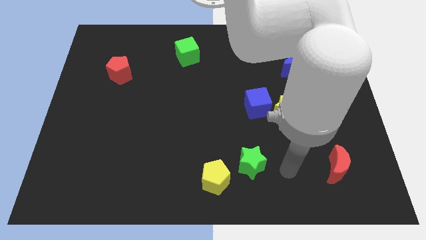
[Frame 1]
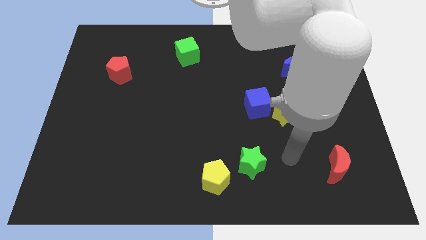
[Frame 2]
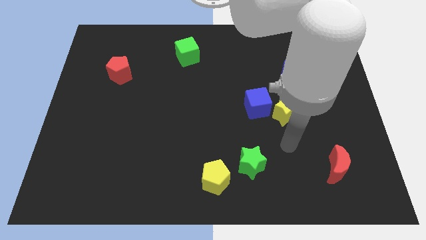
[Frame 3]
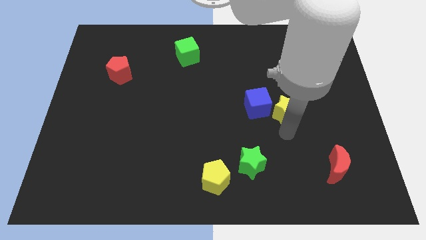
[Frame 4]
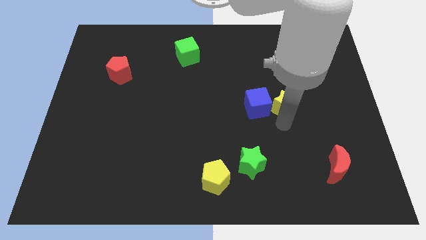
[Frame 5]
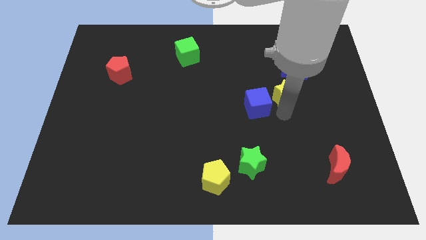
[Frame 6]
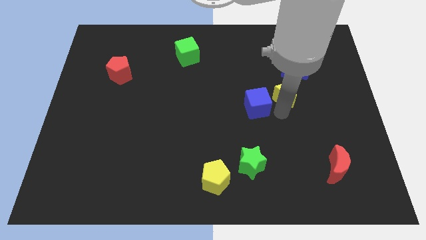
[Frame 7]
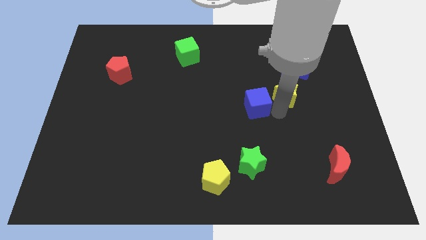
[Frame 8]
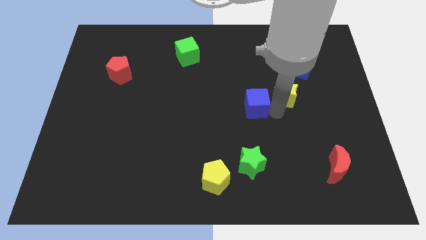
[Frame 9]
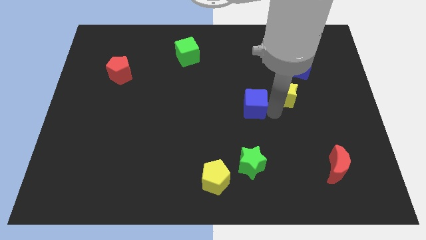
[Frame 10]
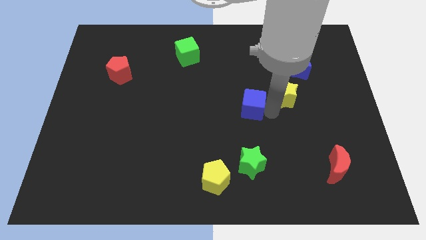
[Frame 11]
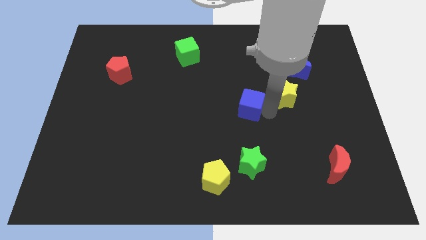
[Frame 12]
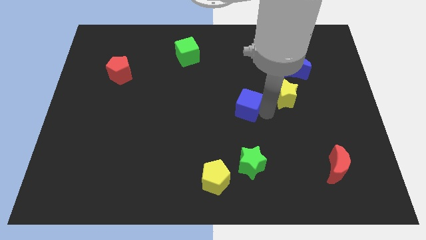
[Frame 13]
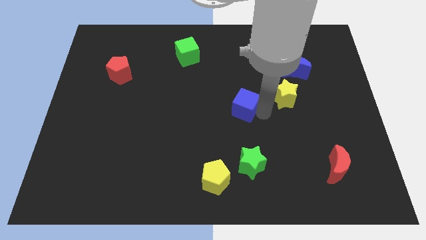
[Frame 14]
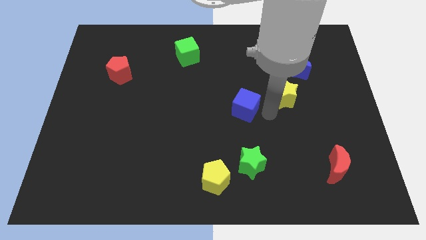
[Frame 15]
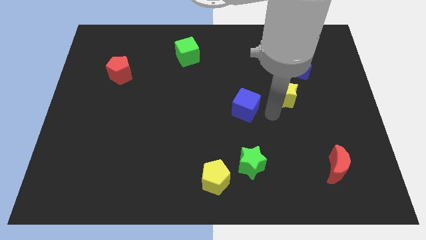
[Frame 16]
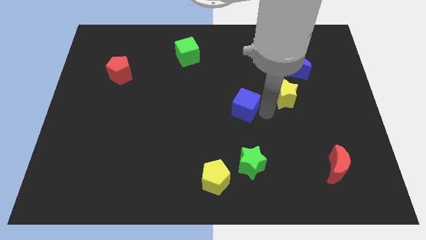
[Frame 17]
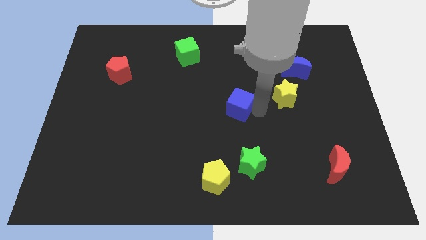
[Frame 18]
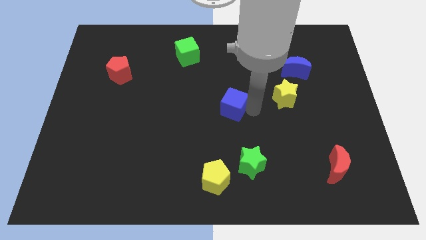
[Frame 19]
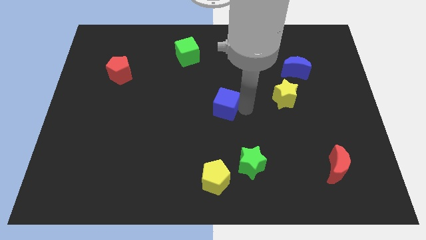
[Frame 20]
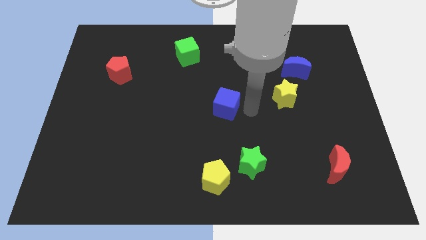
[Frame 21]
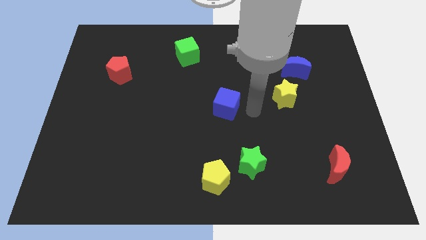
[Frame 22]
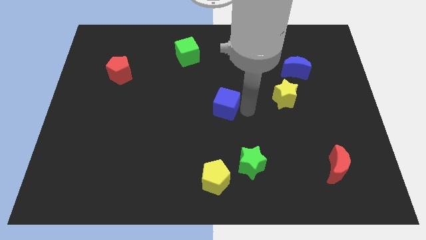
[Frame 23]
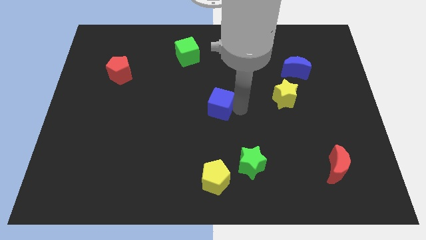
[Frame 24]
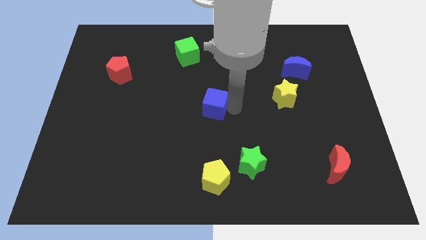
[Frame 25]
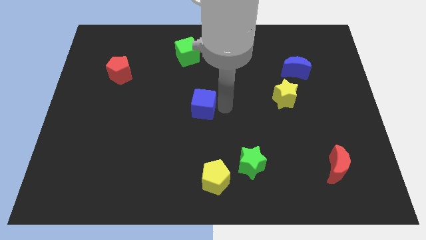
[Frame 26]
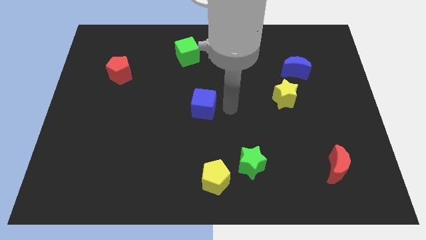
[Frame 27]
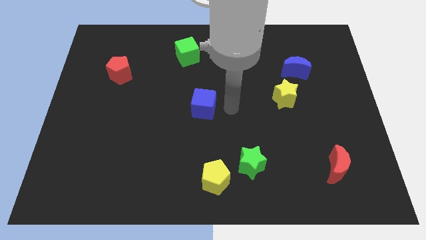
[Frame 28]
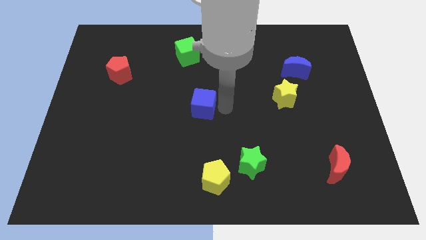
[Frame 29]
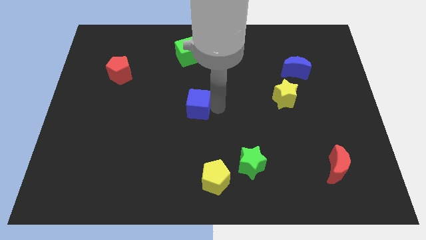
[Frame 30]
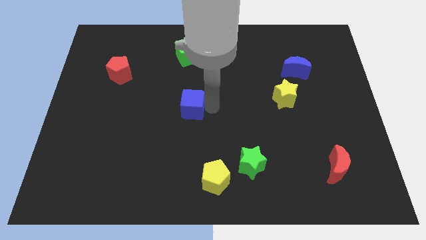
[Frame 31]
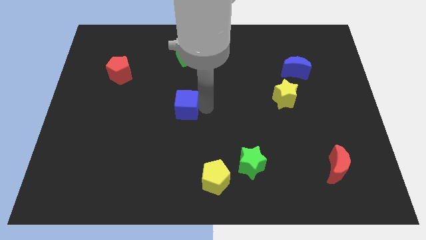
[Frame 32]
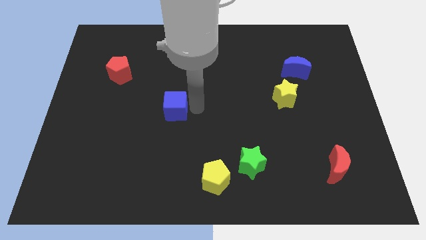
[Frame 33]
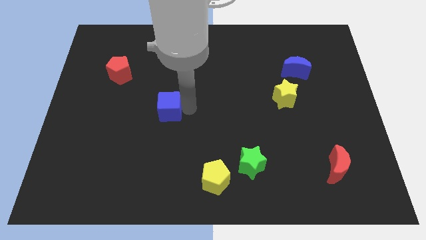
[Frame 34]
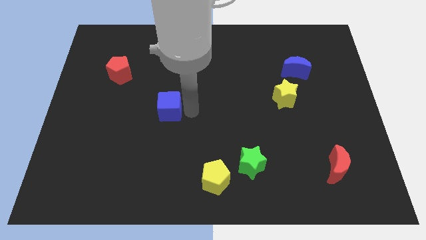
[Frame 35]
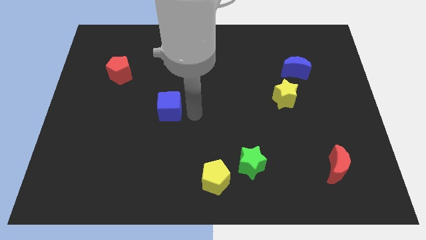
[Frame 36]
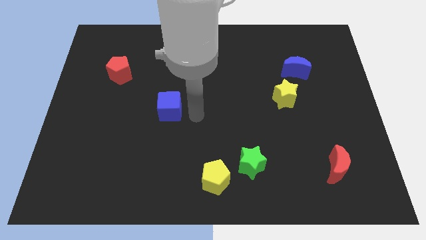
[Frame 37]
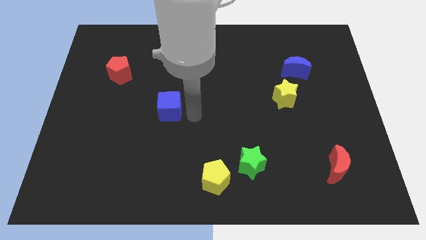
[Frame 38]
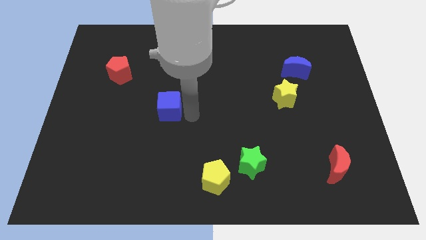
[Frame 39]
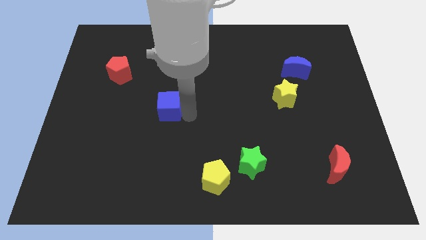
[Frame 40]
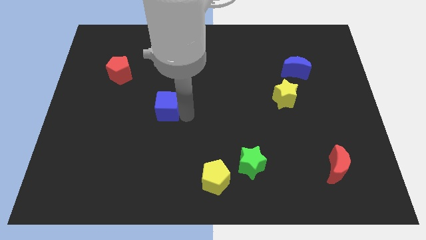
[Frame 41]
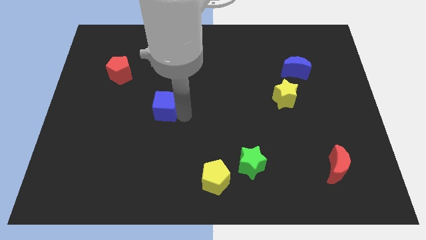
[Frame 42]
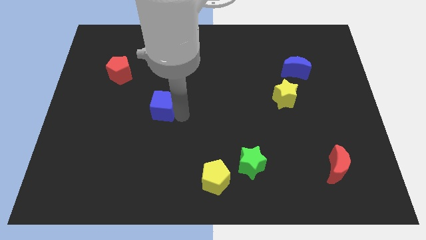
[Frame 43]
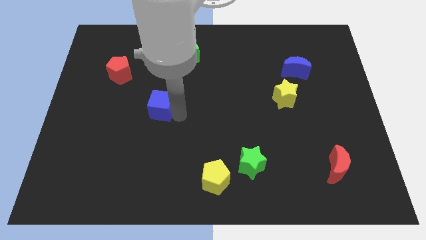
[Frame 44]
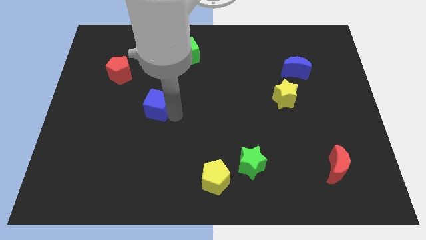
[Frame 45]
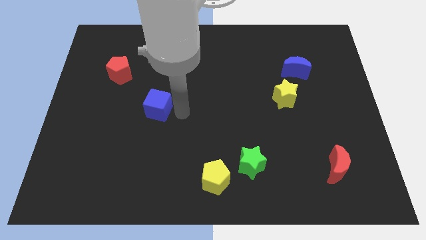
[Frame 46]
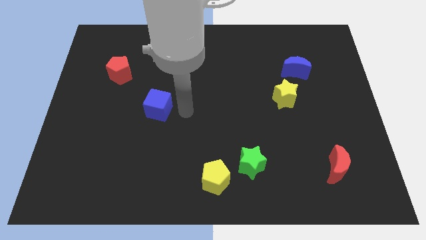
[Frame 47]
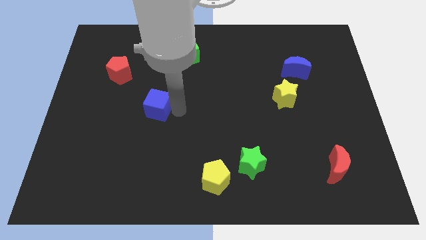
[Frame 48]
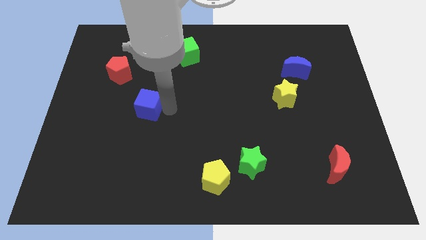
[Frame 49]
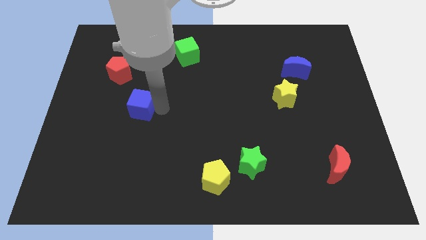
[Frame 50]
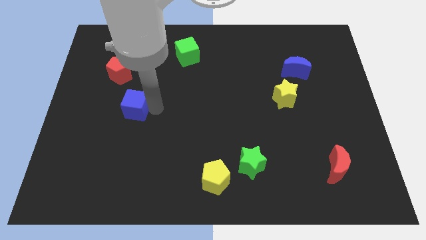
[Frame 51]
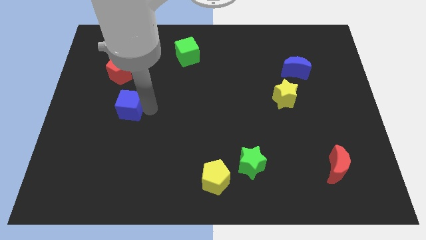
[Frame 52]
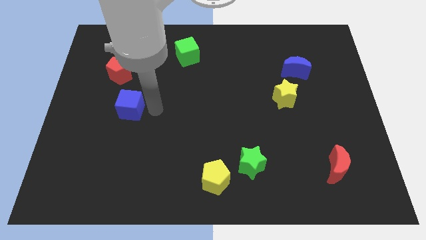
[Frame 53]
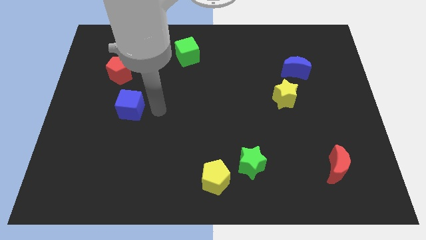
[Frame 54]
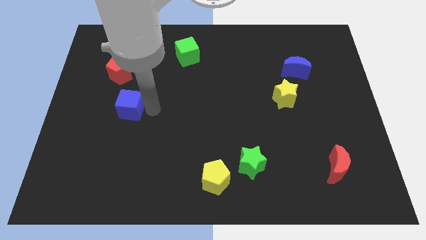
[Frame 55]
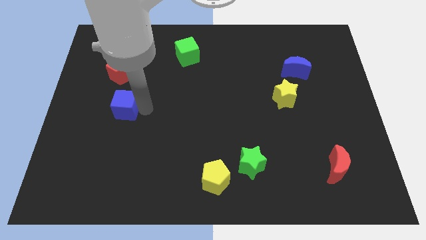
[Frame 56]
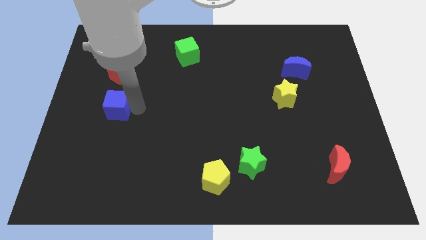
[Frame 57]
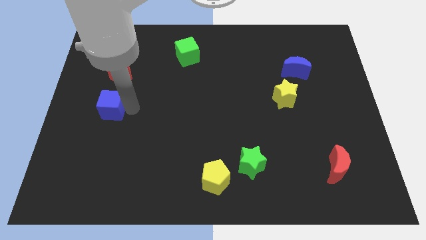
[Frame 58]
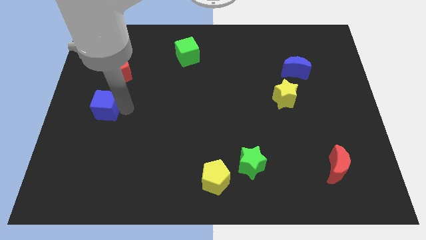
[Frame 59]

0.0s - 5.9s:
move the blue cube to the left side

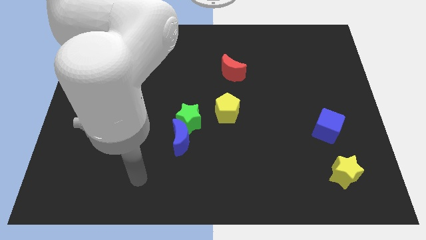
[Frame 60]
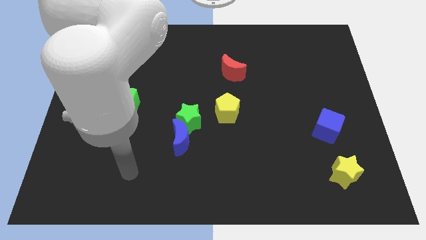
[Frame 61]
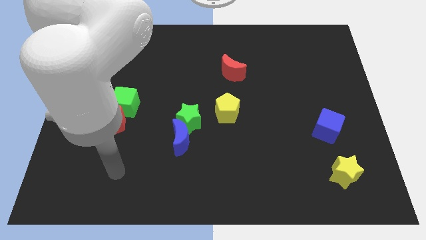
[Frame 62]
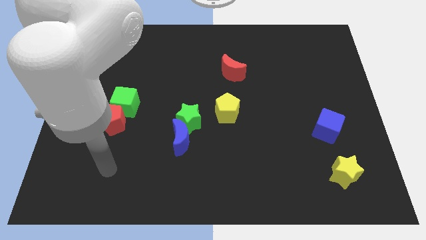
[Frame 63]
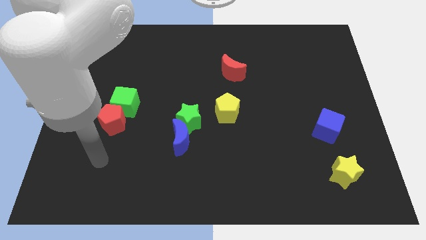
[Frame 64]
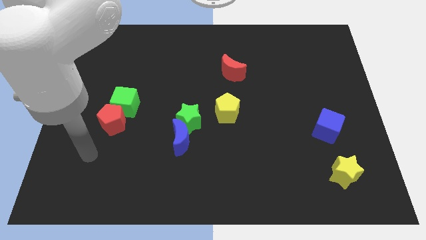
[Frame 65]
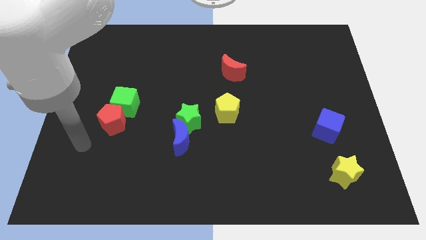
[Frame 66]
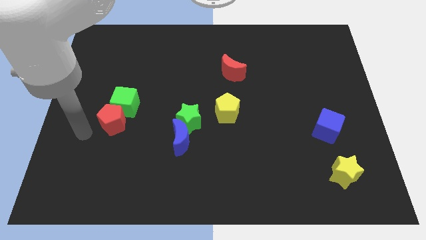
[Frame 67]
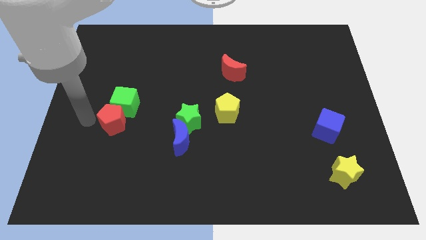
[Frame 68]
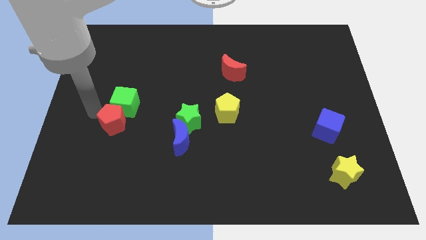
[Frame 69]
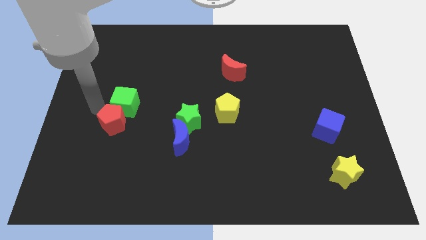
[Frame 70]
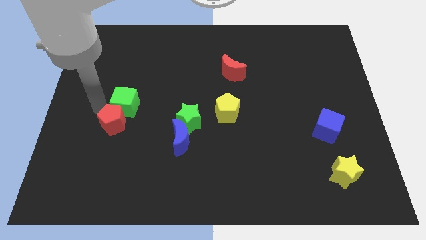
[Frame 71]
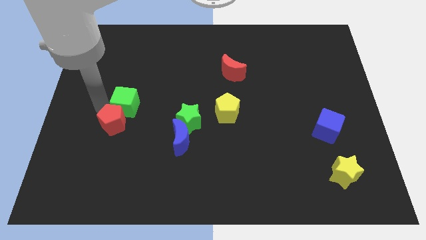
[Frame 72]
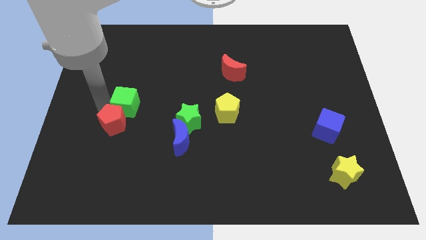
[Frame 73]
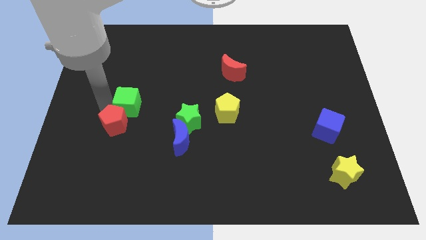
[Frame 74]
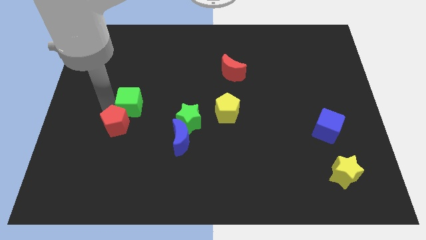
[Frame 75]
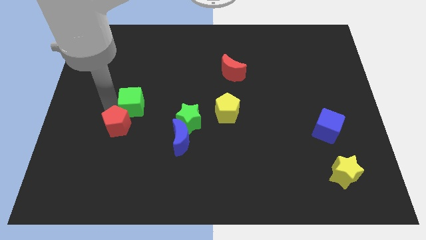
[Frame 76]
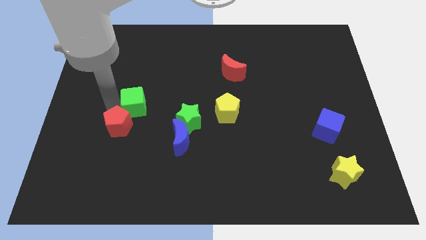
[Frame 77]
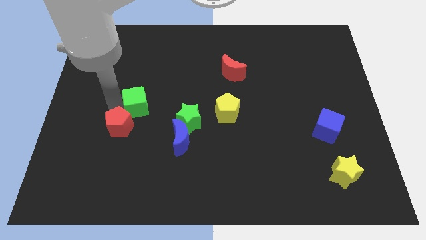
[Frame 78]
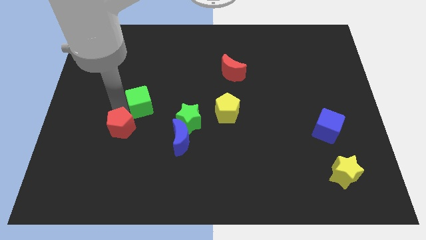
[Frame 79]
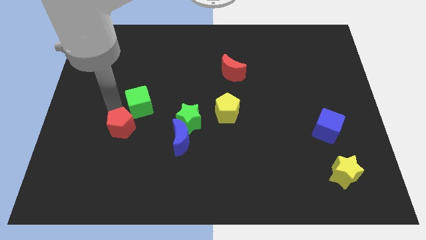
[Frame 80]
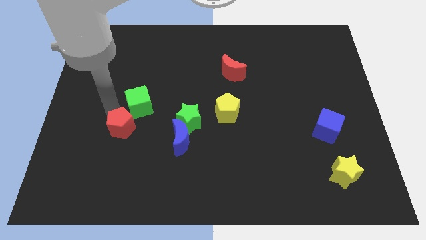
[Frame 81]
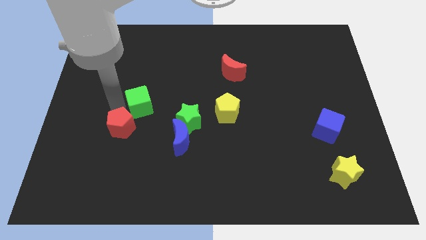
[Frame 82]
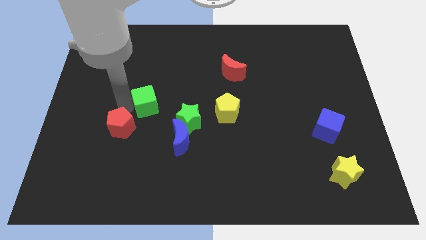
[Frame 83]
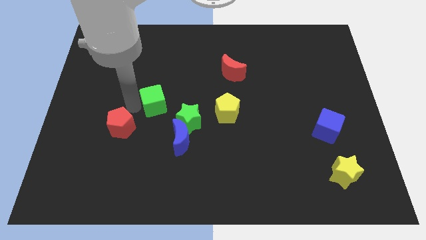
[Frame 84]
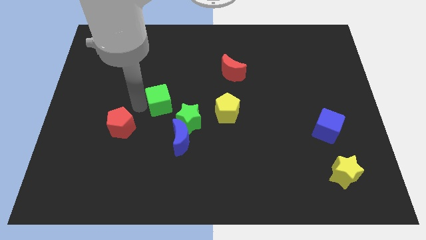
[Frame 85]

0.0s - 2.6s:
move the green cube to the middle of the board
